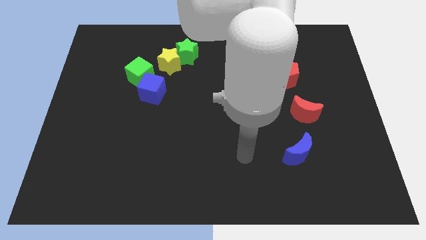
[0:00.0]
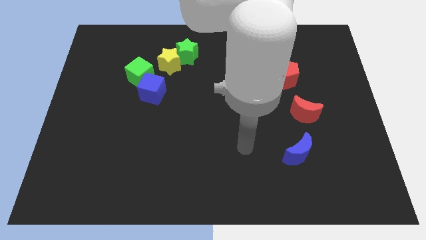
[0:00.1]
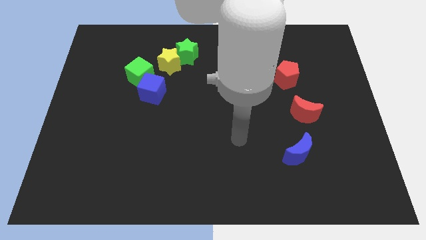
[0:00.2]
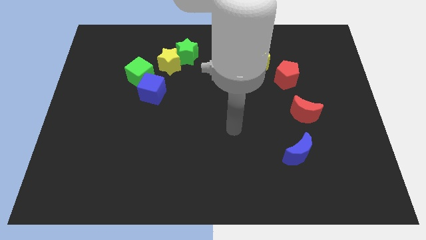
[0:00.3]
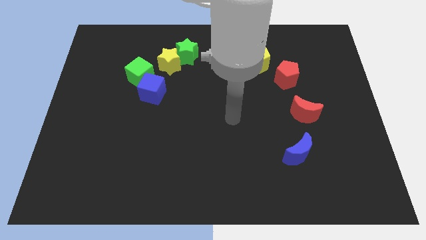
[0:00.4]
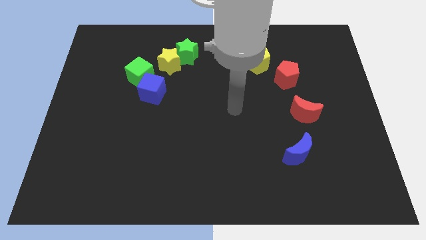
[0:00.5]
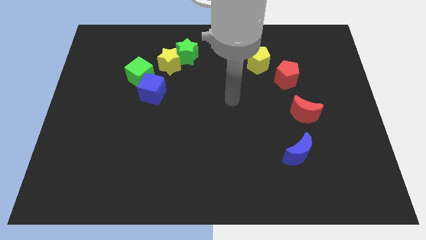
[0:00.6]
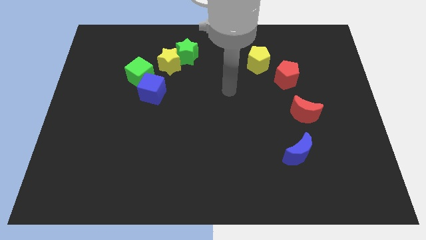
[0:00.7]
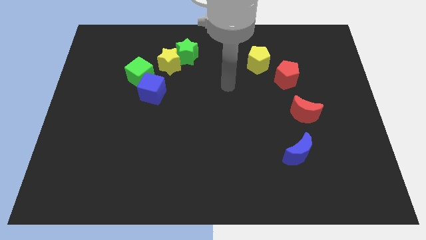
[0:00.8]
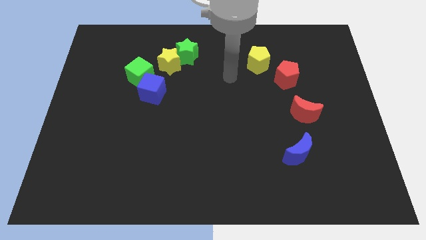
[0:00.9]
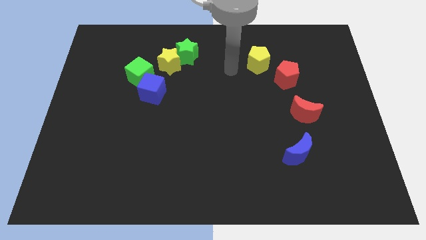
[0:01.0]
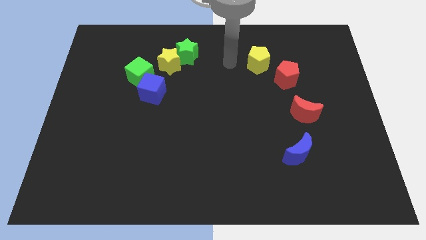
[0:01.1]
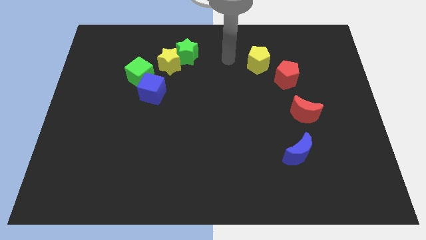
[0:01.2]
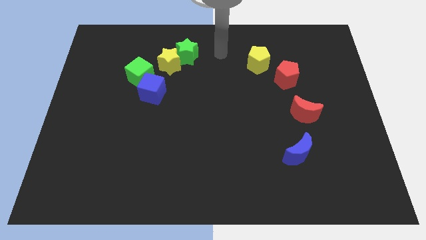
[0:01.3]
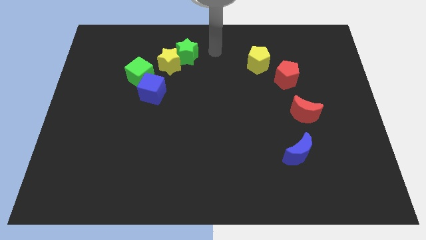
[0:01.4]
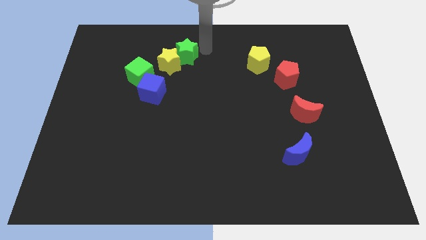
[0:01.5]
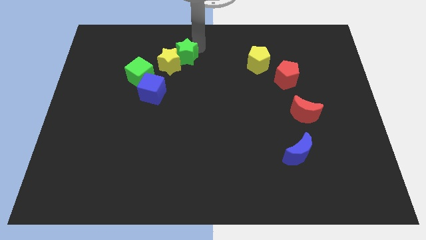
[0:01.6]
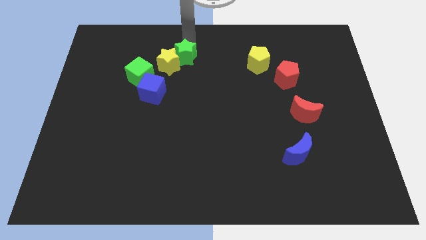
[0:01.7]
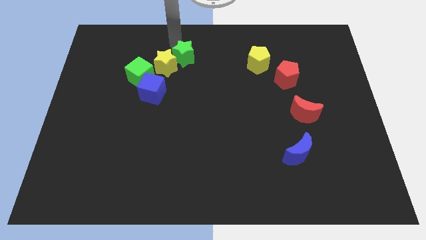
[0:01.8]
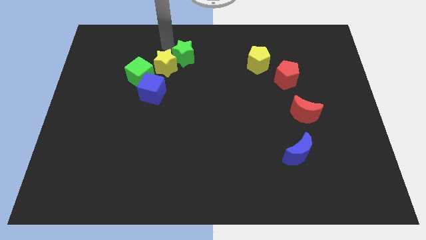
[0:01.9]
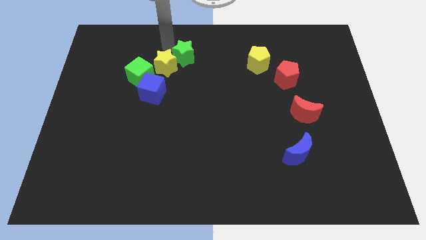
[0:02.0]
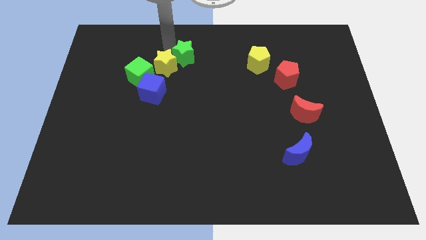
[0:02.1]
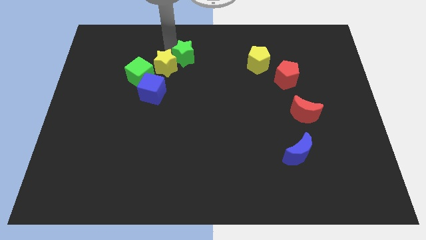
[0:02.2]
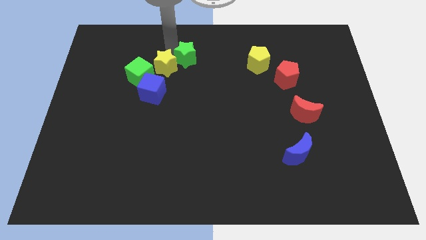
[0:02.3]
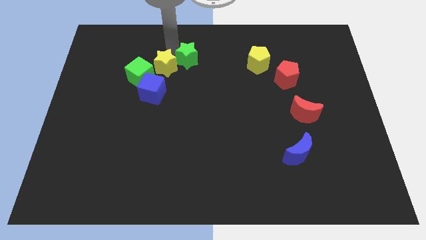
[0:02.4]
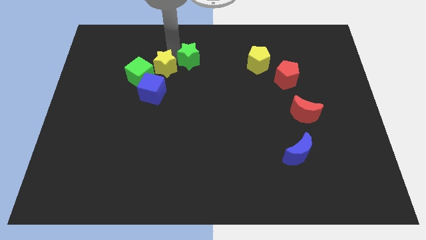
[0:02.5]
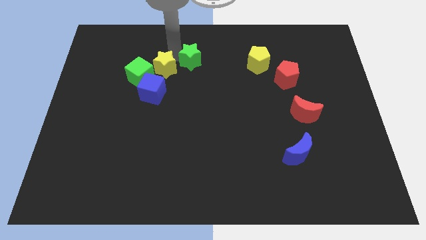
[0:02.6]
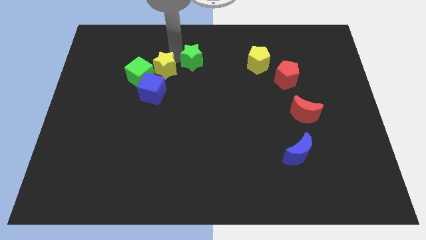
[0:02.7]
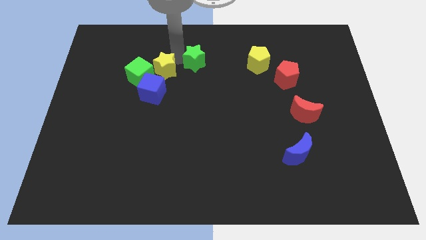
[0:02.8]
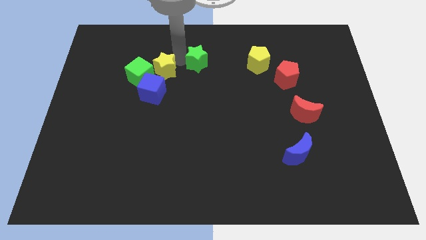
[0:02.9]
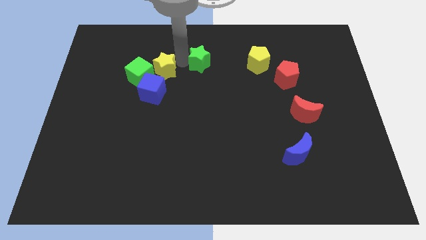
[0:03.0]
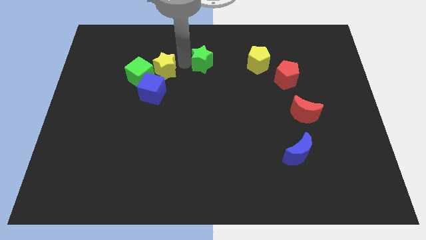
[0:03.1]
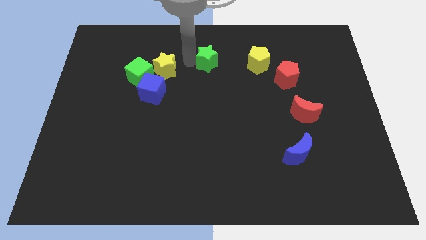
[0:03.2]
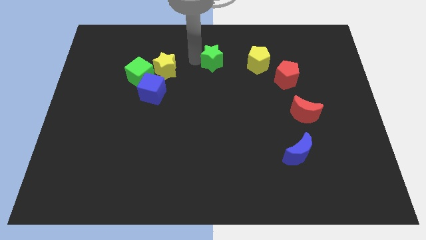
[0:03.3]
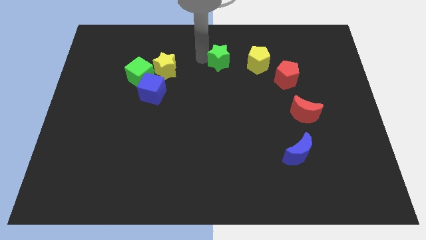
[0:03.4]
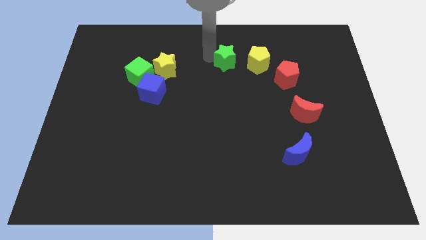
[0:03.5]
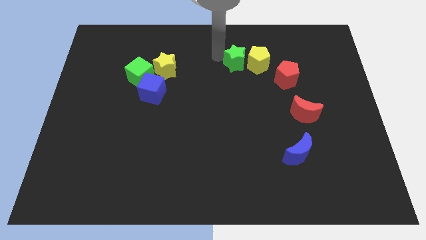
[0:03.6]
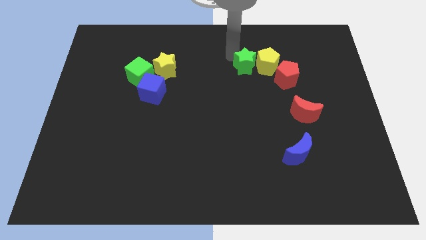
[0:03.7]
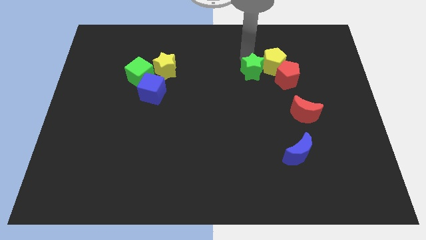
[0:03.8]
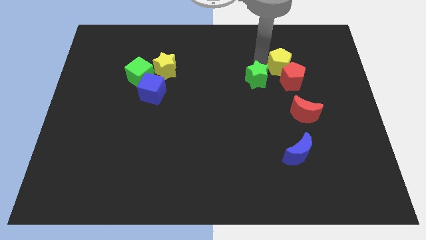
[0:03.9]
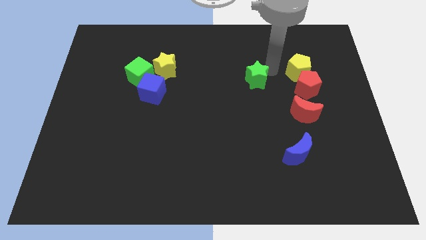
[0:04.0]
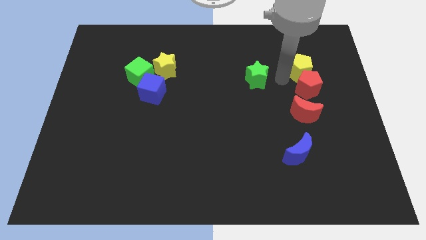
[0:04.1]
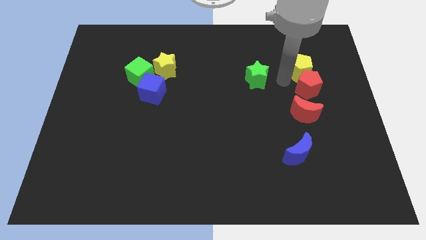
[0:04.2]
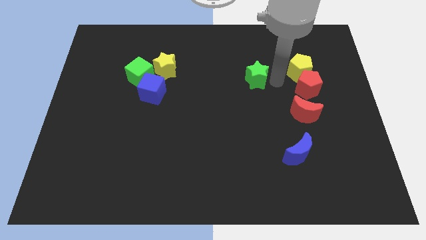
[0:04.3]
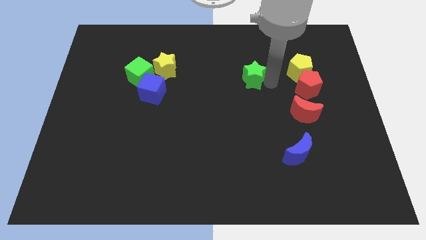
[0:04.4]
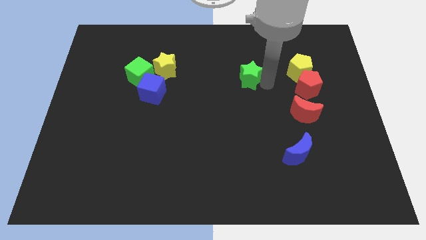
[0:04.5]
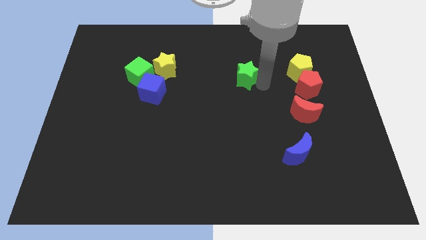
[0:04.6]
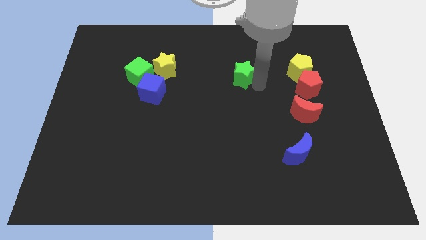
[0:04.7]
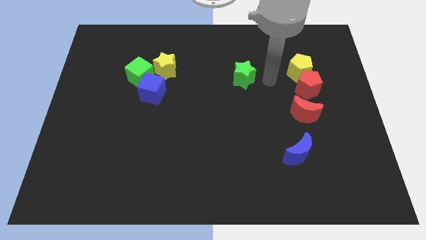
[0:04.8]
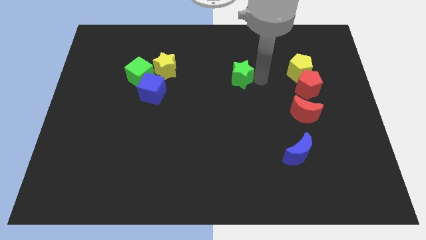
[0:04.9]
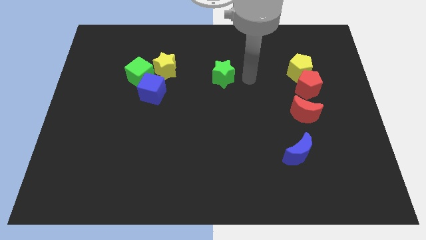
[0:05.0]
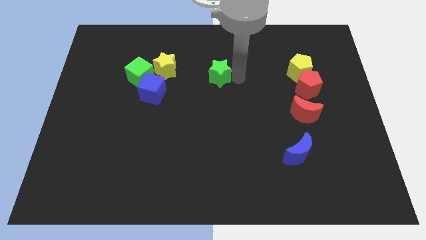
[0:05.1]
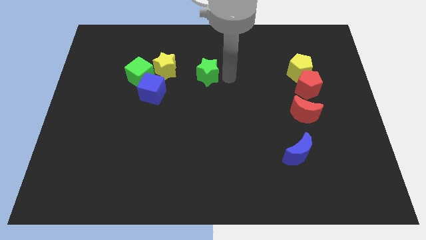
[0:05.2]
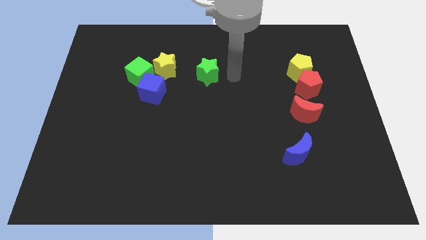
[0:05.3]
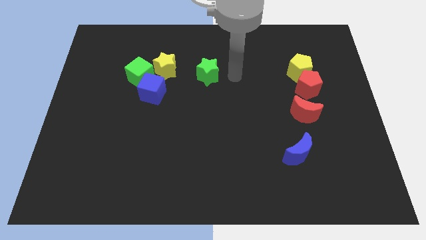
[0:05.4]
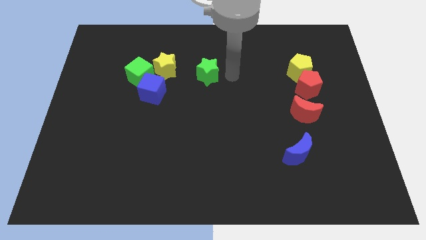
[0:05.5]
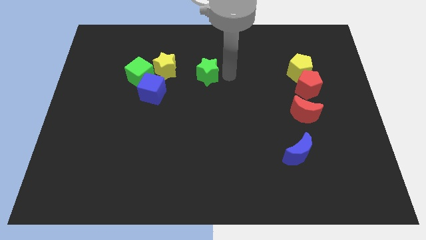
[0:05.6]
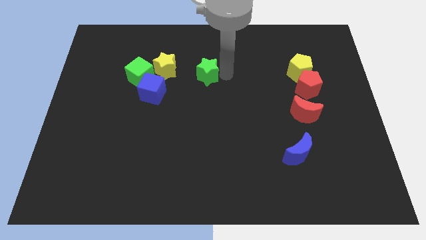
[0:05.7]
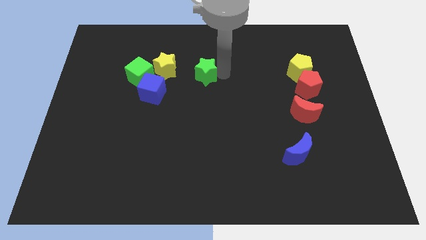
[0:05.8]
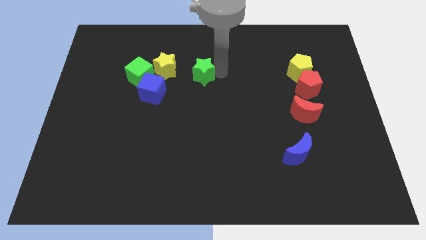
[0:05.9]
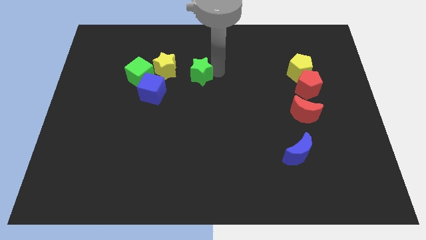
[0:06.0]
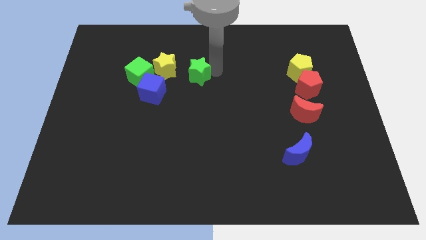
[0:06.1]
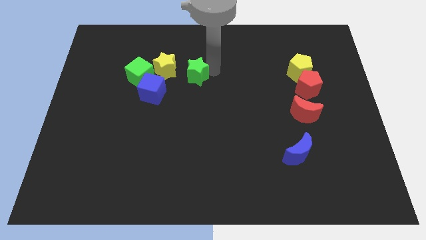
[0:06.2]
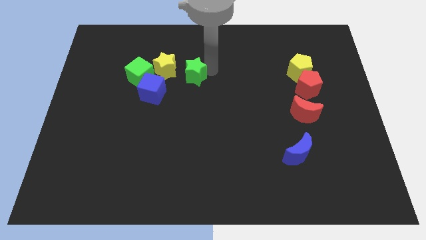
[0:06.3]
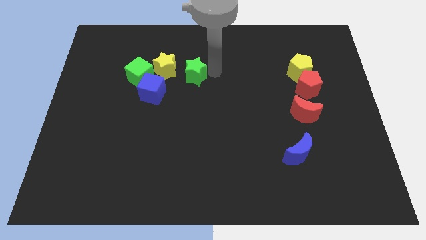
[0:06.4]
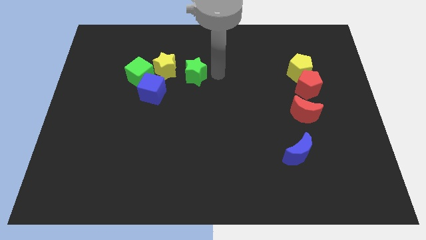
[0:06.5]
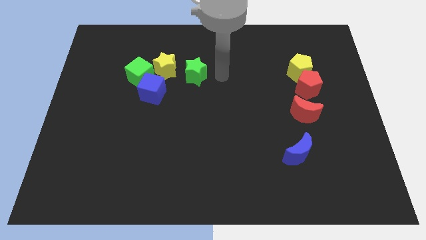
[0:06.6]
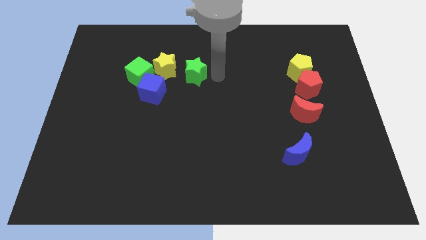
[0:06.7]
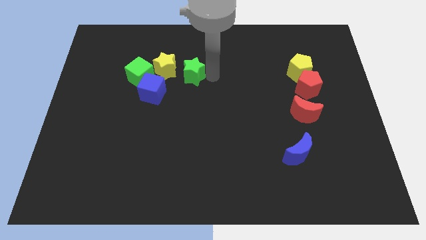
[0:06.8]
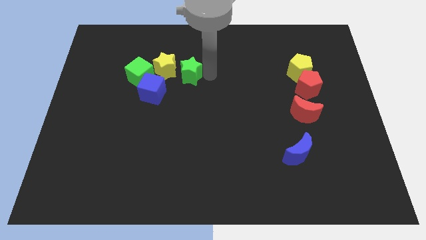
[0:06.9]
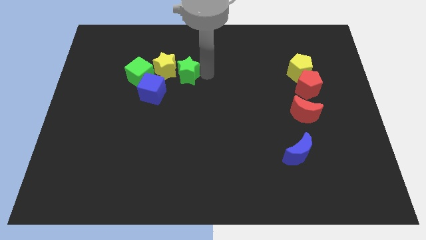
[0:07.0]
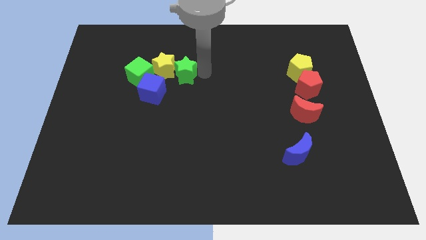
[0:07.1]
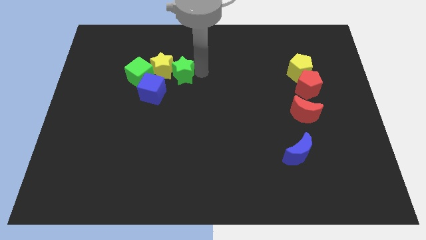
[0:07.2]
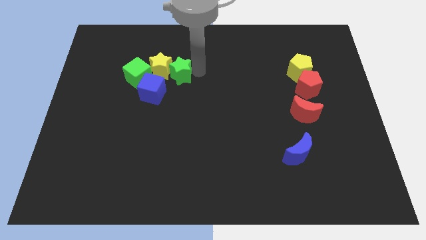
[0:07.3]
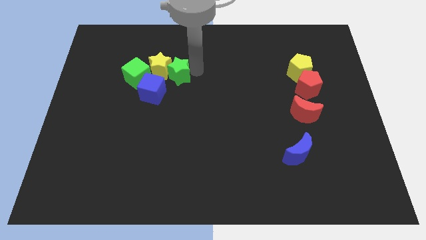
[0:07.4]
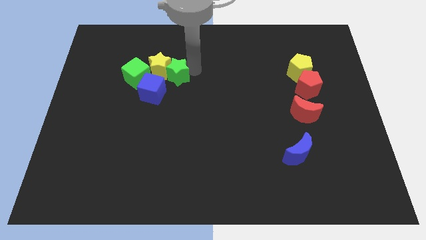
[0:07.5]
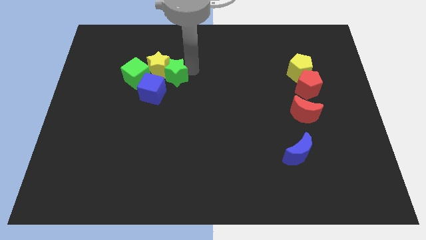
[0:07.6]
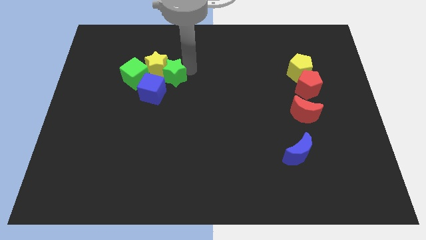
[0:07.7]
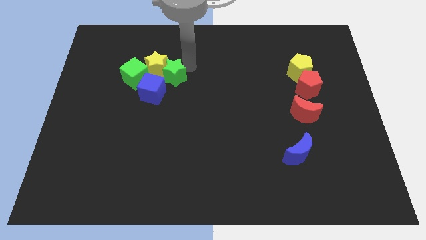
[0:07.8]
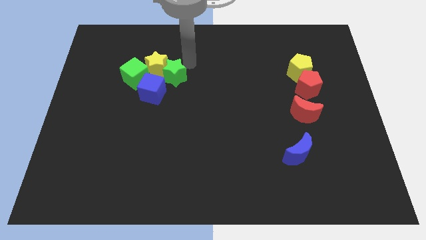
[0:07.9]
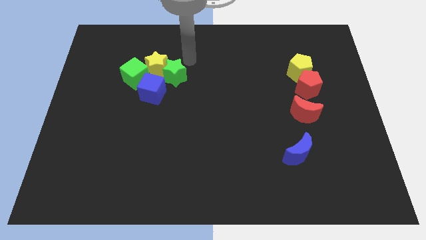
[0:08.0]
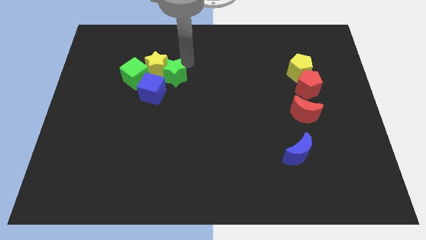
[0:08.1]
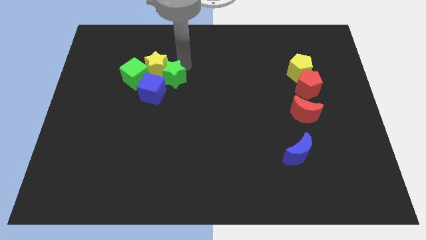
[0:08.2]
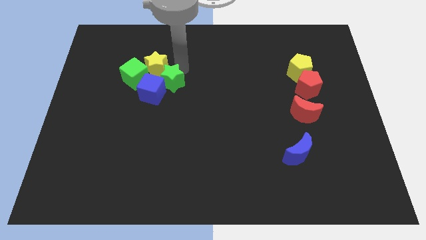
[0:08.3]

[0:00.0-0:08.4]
move the green star next to the blue cube
